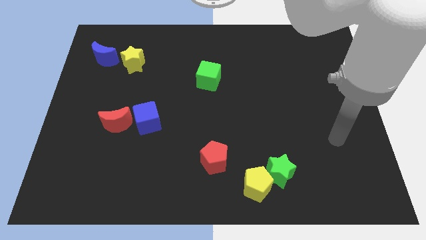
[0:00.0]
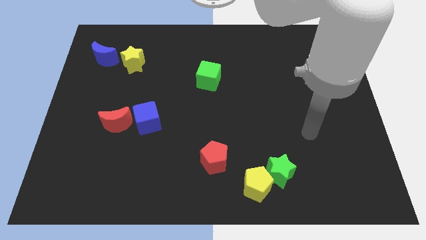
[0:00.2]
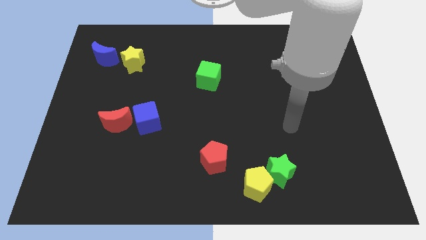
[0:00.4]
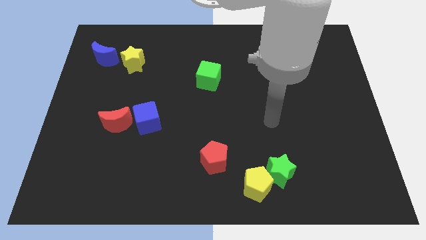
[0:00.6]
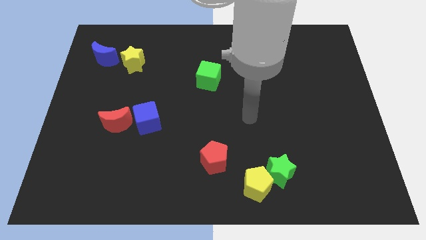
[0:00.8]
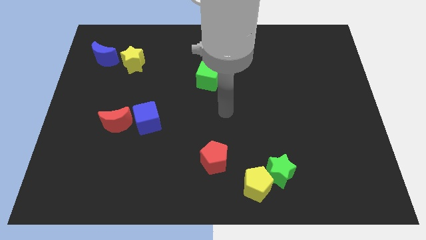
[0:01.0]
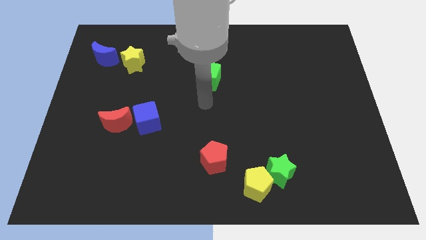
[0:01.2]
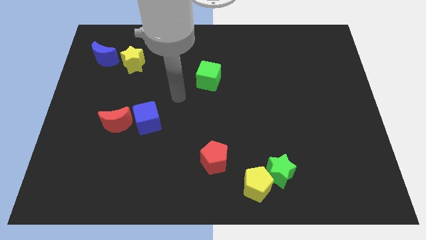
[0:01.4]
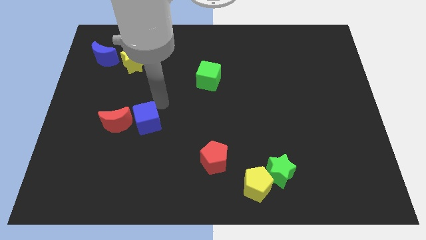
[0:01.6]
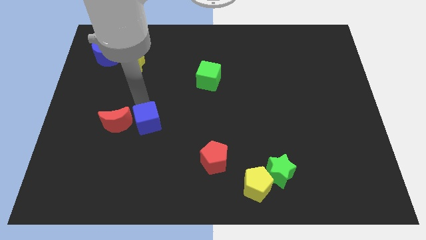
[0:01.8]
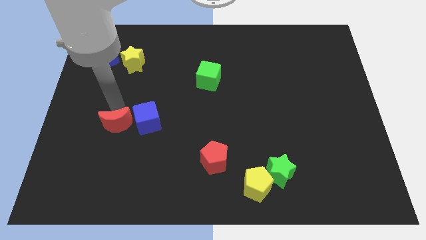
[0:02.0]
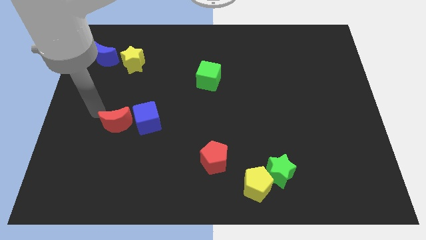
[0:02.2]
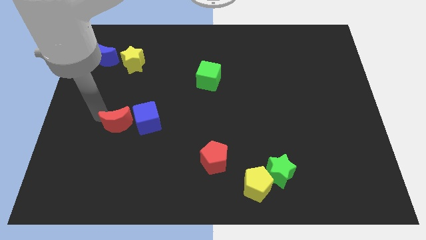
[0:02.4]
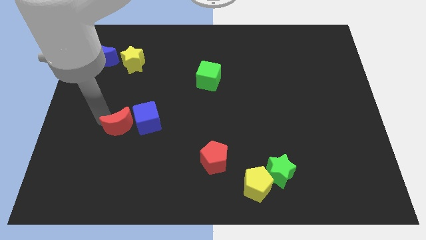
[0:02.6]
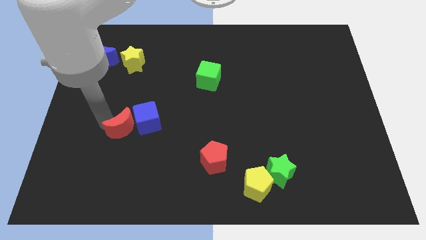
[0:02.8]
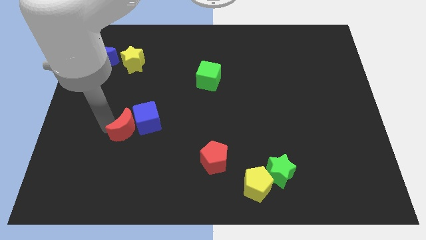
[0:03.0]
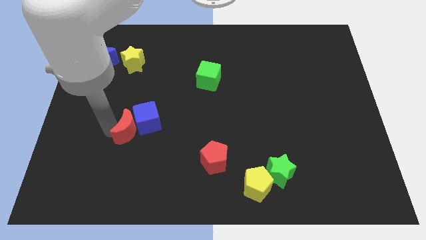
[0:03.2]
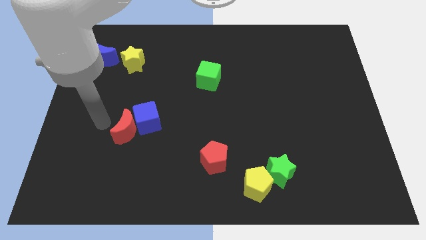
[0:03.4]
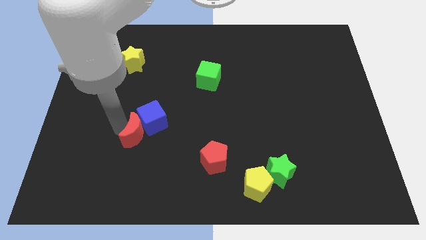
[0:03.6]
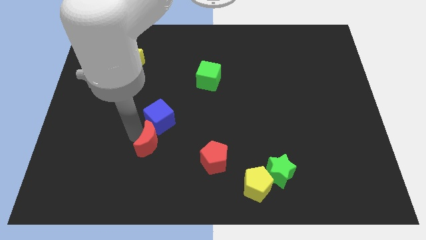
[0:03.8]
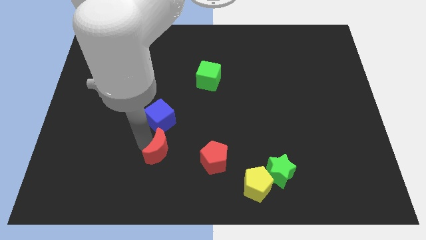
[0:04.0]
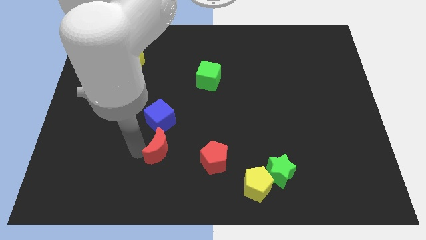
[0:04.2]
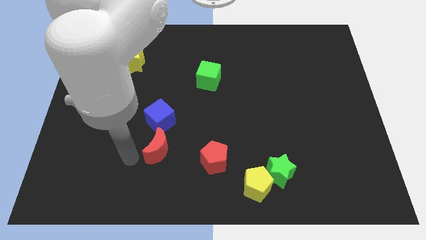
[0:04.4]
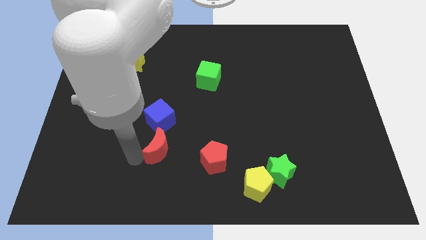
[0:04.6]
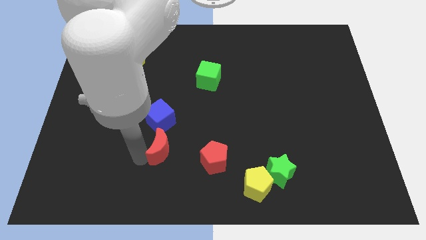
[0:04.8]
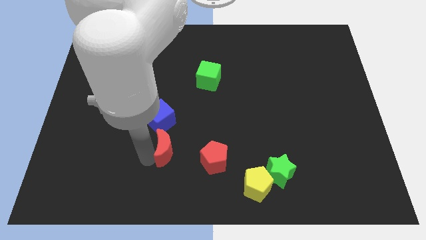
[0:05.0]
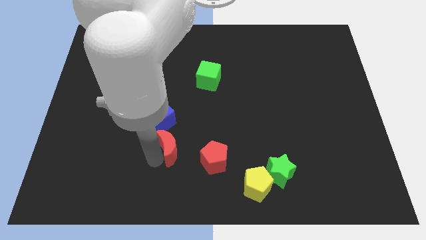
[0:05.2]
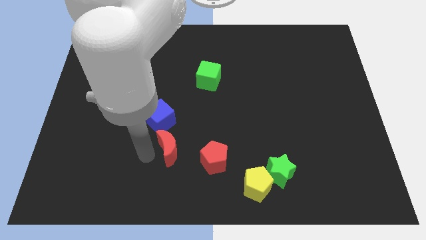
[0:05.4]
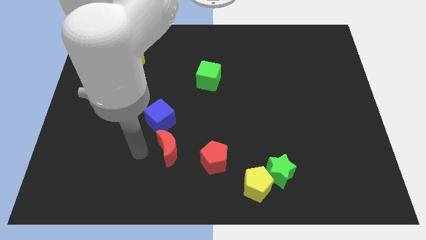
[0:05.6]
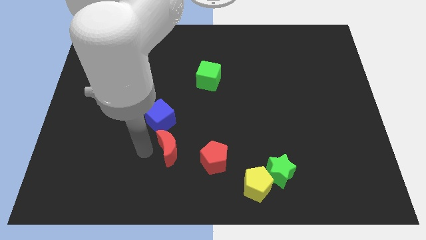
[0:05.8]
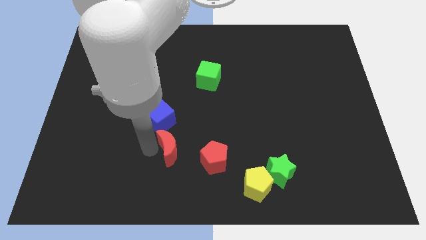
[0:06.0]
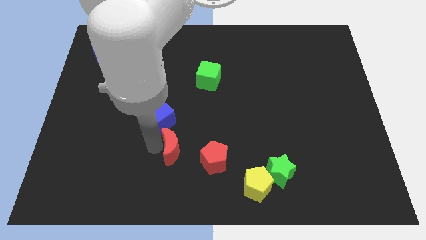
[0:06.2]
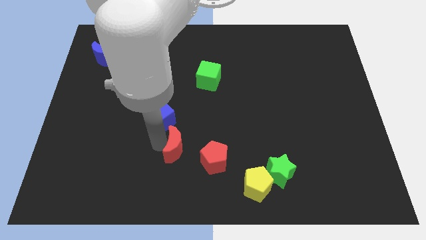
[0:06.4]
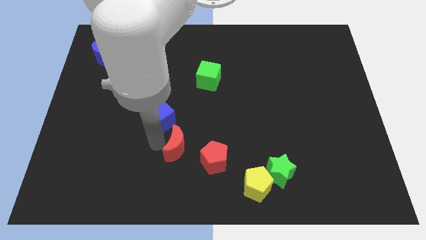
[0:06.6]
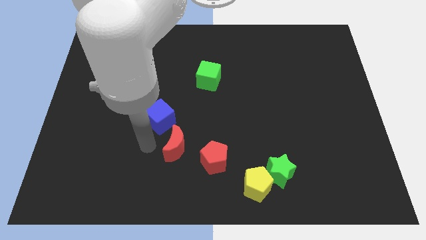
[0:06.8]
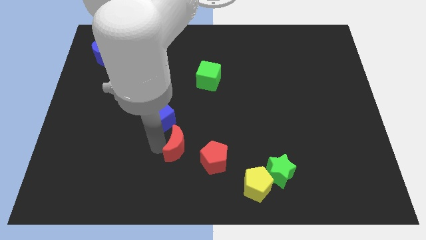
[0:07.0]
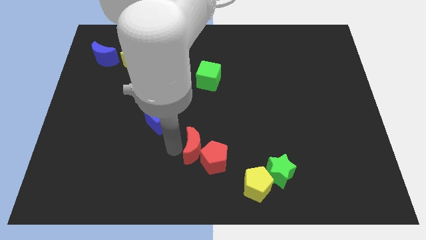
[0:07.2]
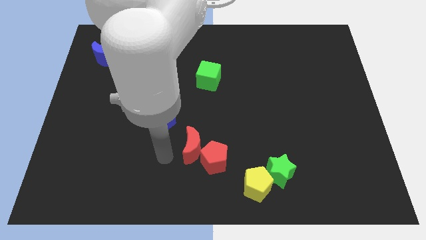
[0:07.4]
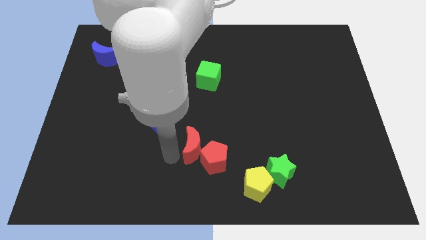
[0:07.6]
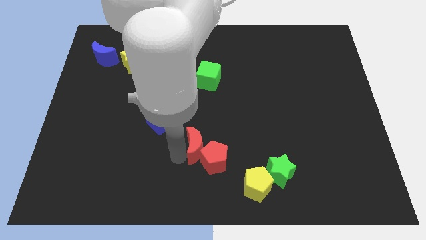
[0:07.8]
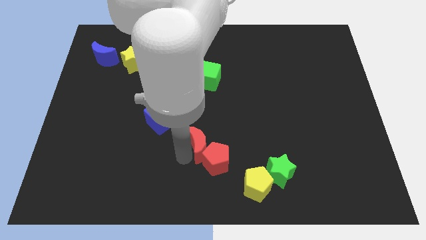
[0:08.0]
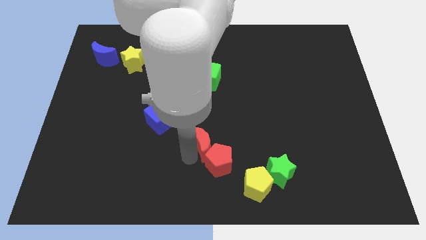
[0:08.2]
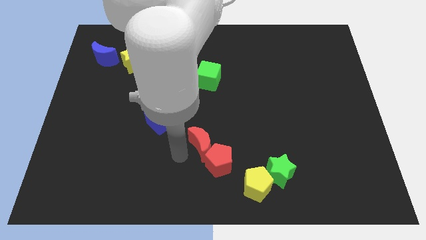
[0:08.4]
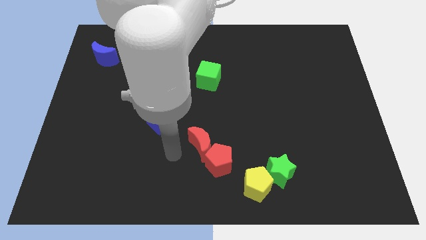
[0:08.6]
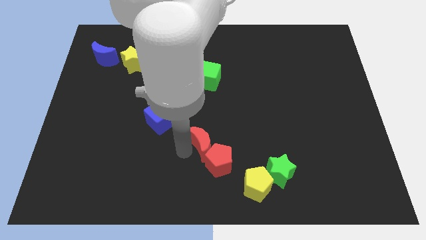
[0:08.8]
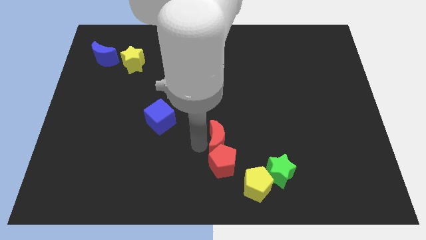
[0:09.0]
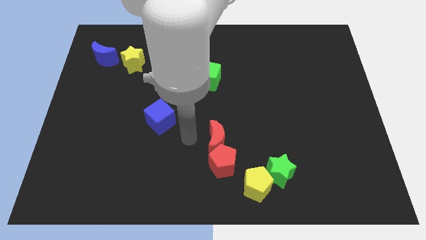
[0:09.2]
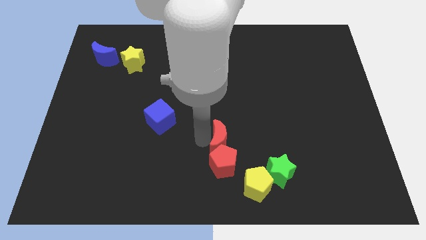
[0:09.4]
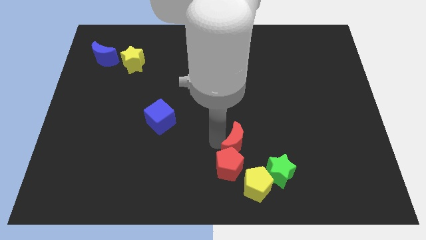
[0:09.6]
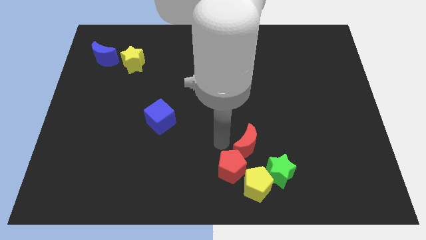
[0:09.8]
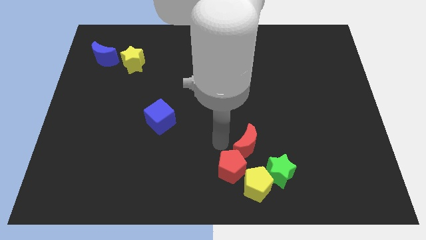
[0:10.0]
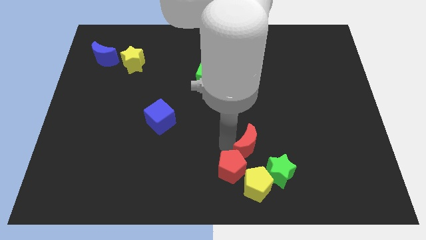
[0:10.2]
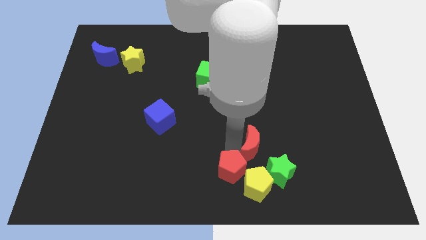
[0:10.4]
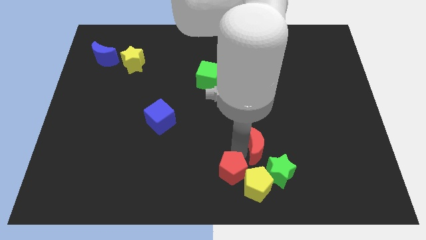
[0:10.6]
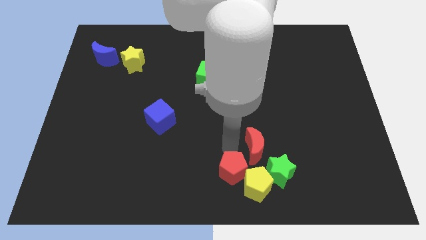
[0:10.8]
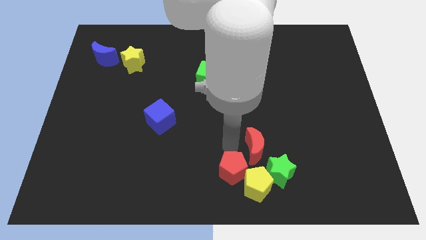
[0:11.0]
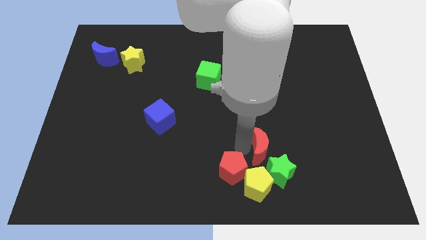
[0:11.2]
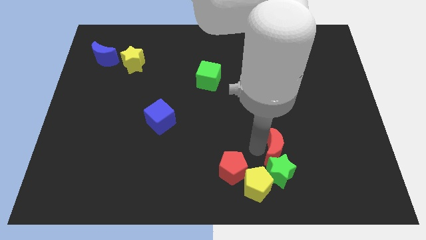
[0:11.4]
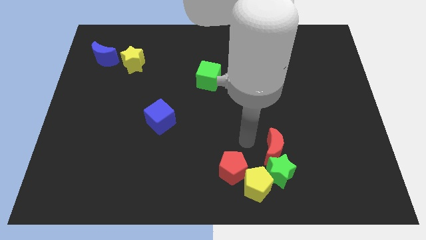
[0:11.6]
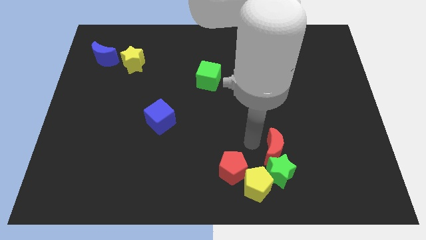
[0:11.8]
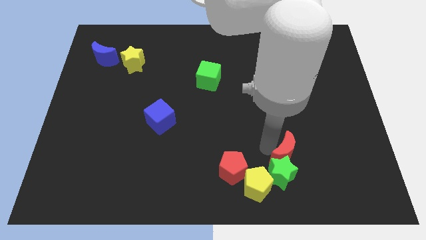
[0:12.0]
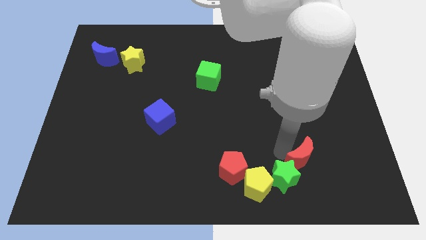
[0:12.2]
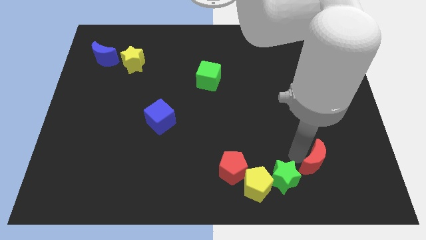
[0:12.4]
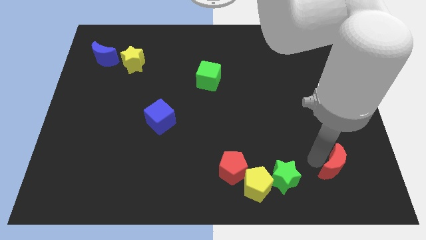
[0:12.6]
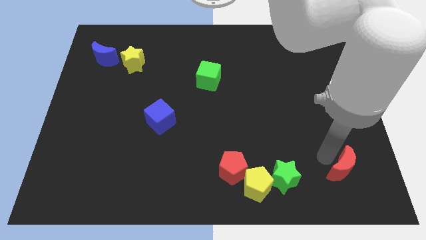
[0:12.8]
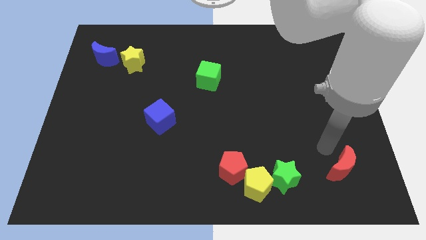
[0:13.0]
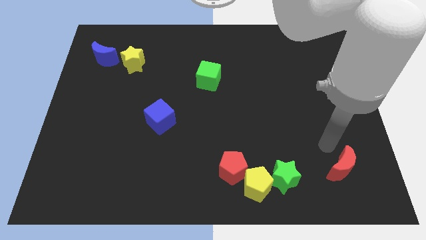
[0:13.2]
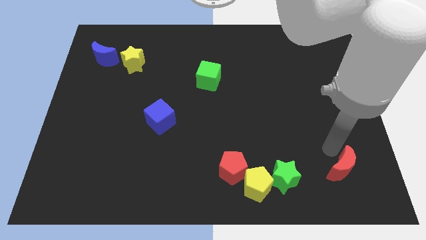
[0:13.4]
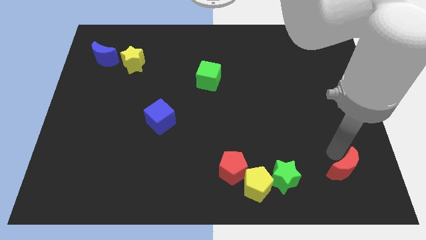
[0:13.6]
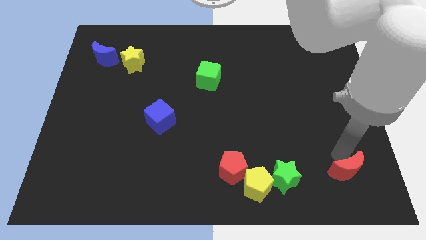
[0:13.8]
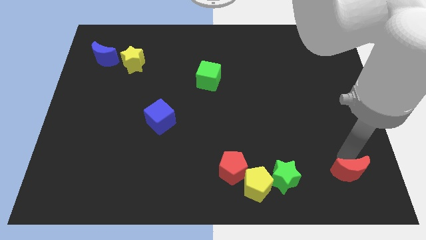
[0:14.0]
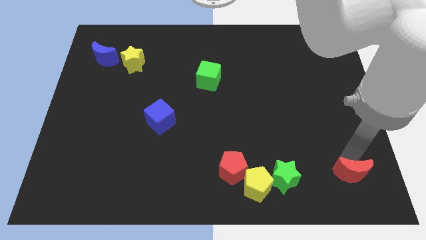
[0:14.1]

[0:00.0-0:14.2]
put the red moon to the bottom right
